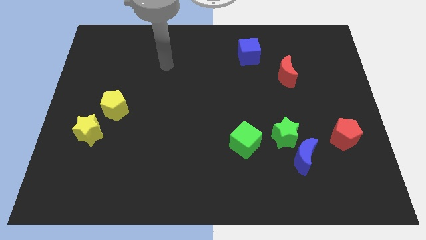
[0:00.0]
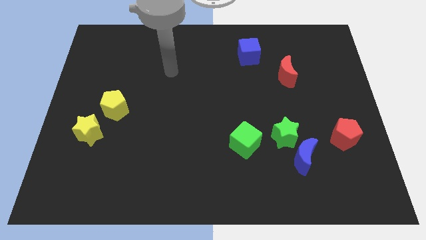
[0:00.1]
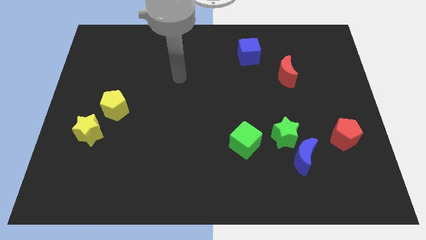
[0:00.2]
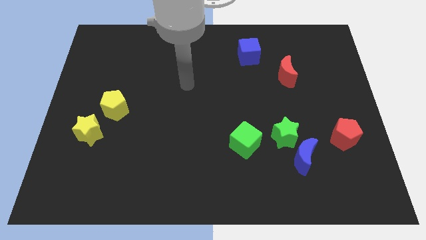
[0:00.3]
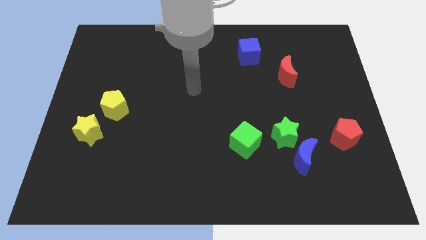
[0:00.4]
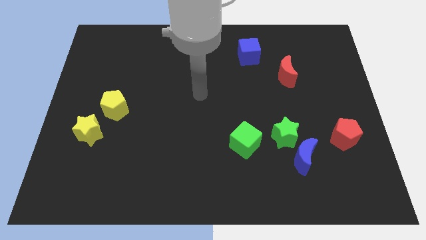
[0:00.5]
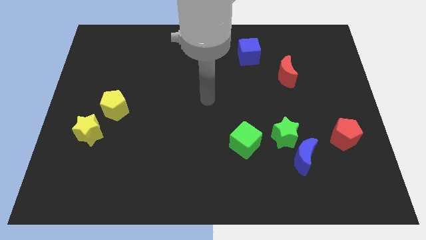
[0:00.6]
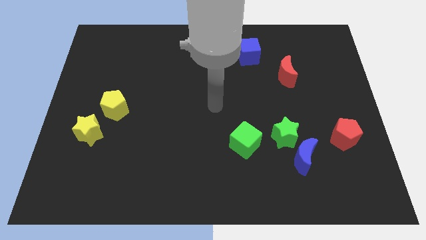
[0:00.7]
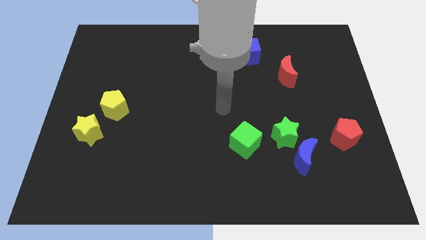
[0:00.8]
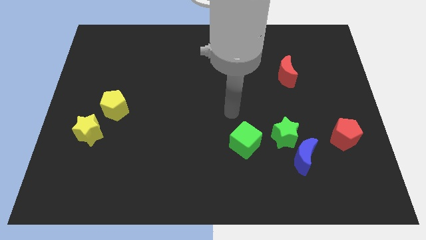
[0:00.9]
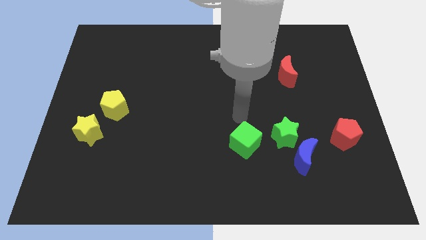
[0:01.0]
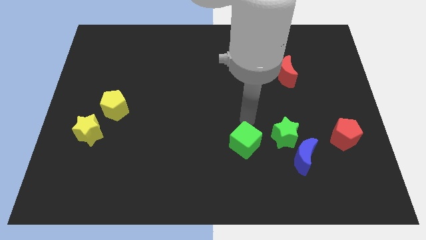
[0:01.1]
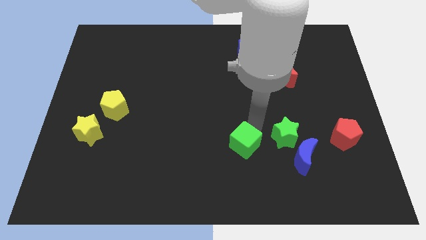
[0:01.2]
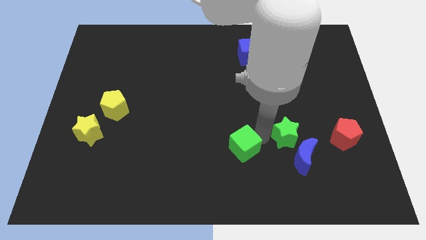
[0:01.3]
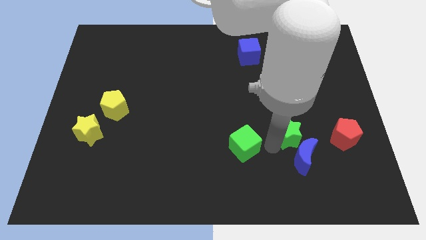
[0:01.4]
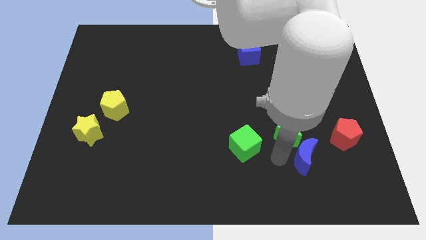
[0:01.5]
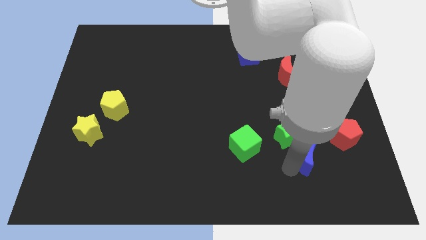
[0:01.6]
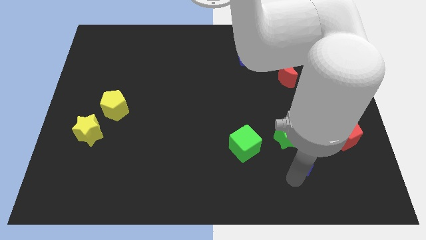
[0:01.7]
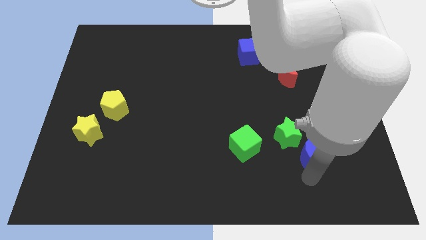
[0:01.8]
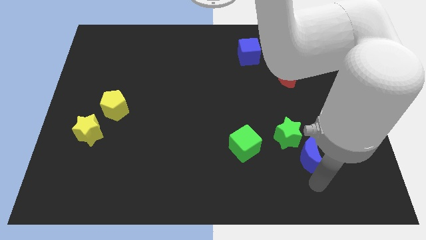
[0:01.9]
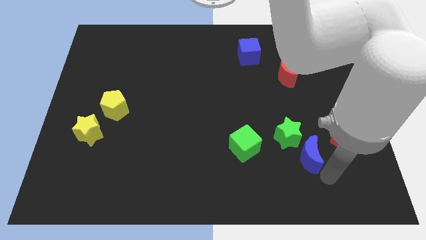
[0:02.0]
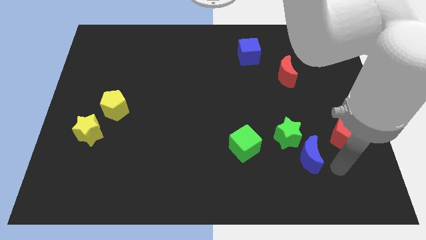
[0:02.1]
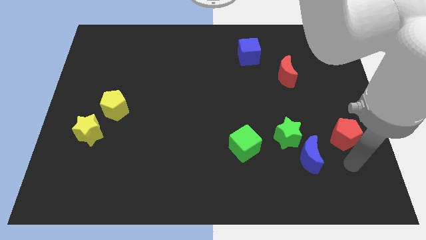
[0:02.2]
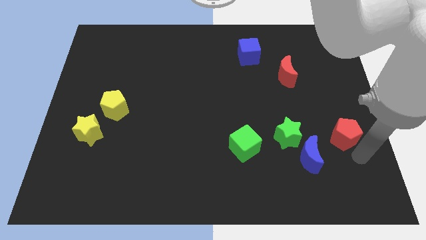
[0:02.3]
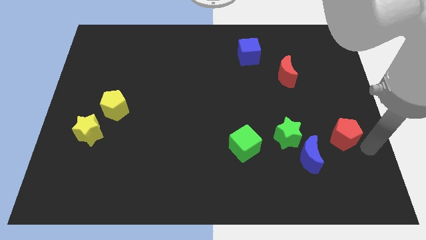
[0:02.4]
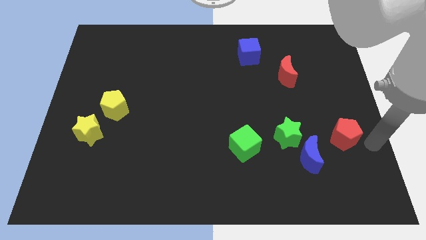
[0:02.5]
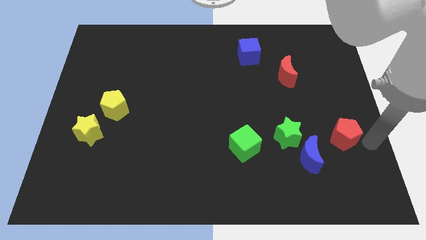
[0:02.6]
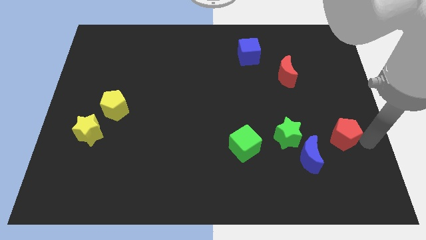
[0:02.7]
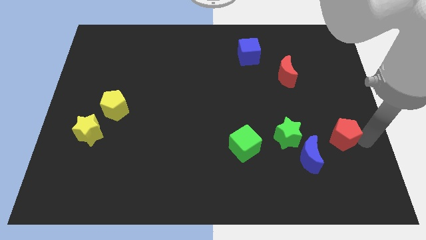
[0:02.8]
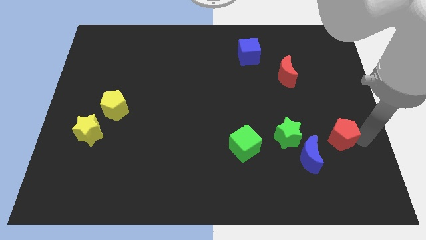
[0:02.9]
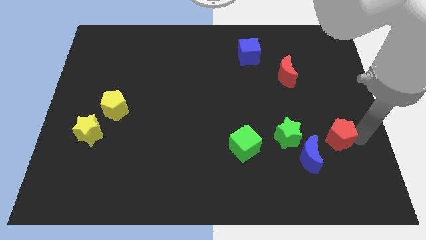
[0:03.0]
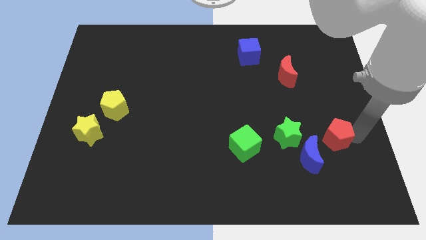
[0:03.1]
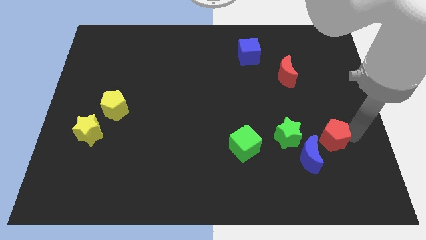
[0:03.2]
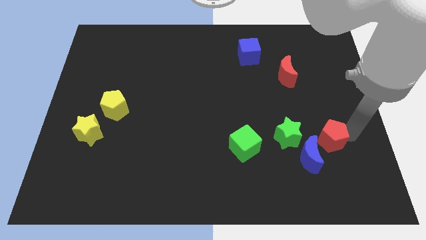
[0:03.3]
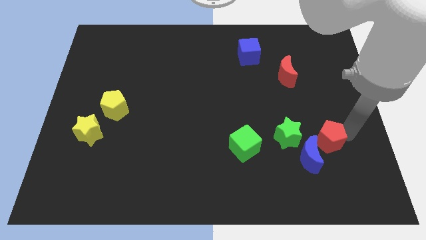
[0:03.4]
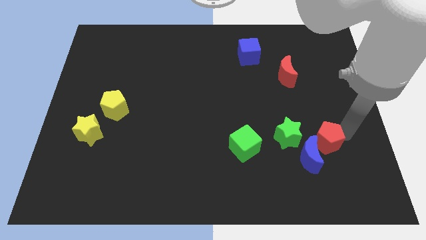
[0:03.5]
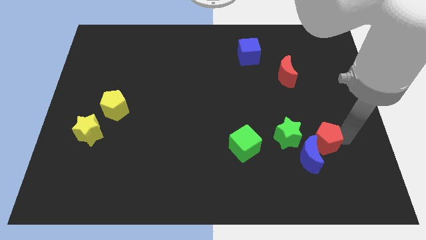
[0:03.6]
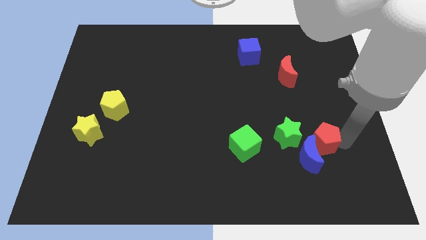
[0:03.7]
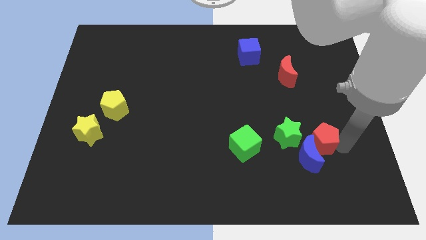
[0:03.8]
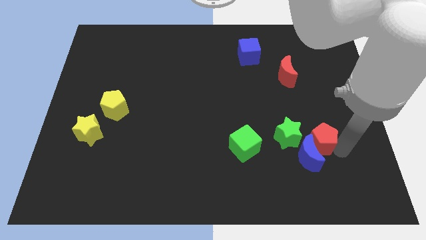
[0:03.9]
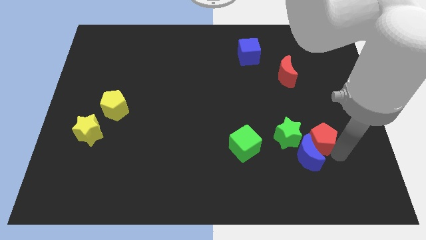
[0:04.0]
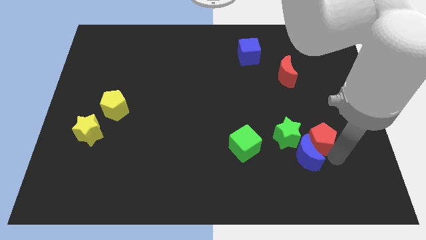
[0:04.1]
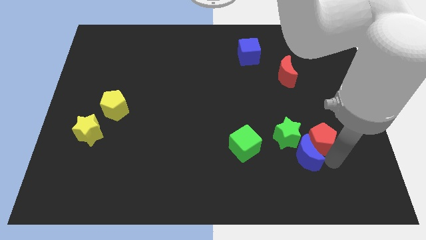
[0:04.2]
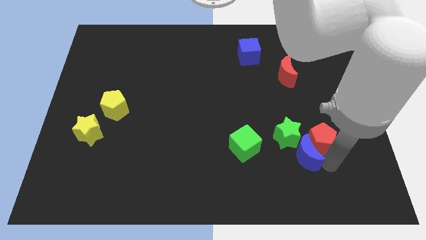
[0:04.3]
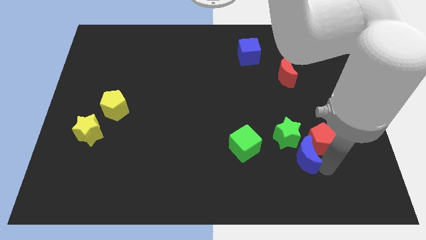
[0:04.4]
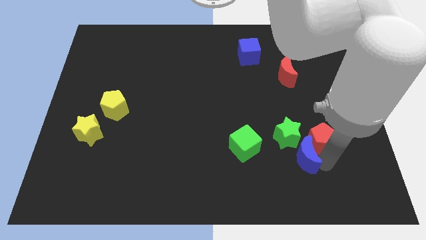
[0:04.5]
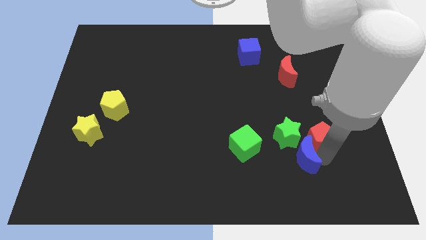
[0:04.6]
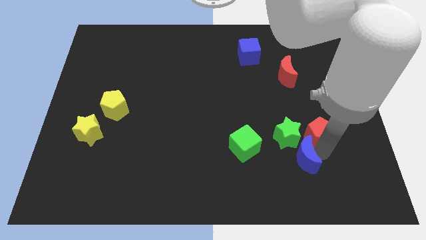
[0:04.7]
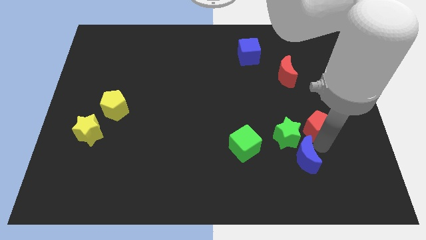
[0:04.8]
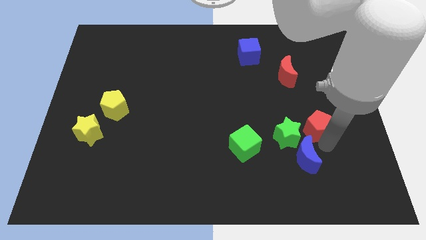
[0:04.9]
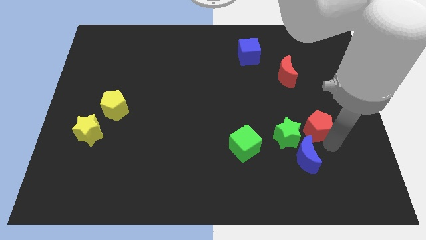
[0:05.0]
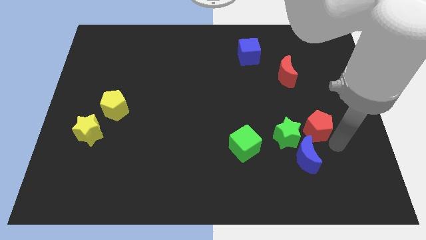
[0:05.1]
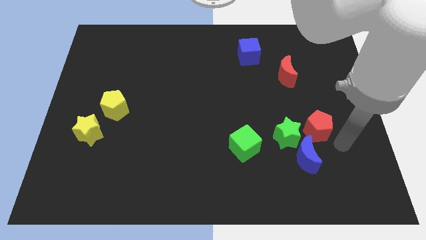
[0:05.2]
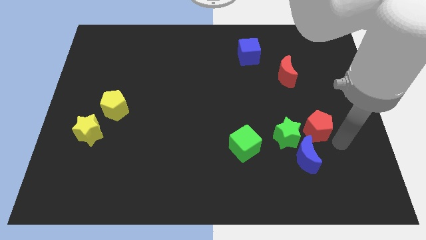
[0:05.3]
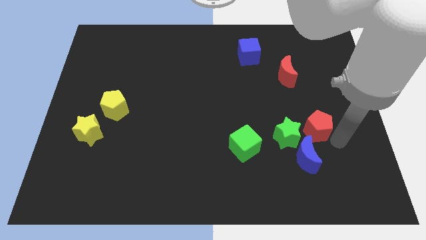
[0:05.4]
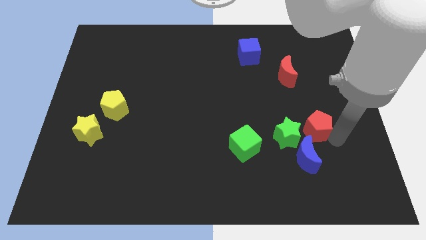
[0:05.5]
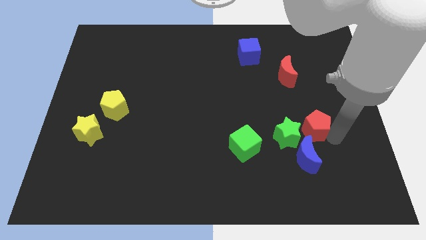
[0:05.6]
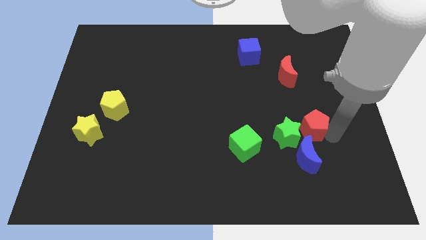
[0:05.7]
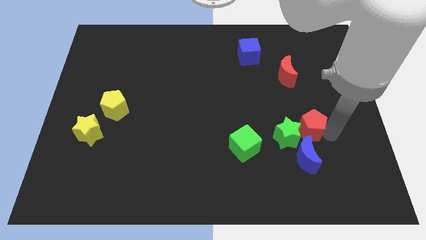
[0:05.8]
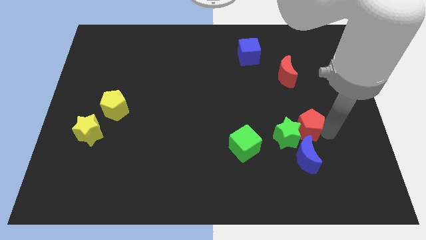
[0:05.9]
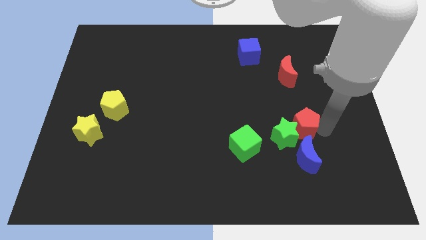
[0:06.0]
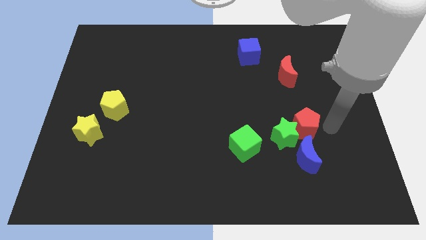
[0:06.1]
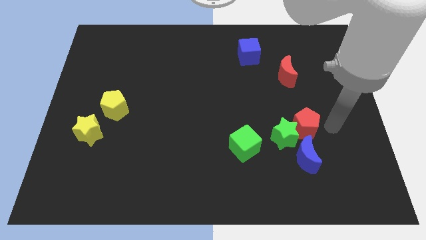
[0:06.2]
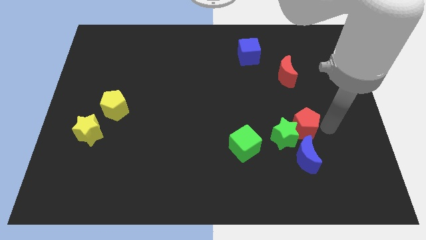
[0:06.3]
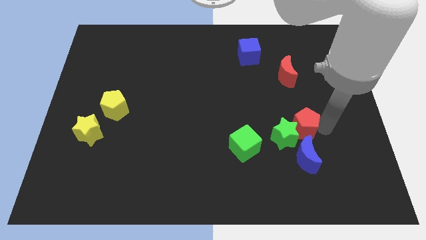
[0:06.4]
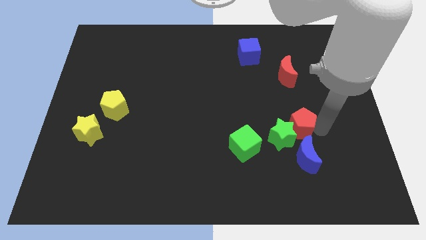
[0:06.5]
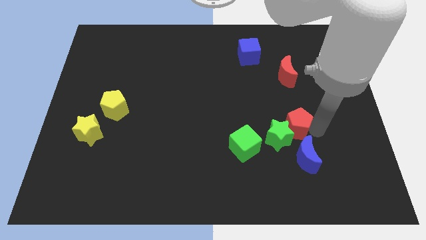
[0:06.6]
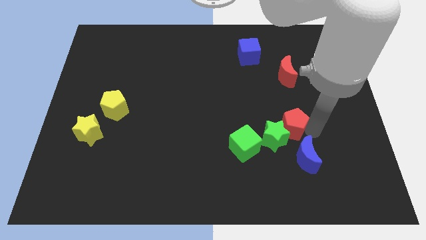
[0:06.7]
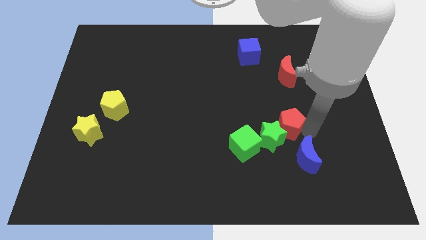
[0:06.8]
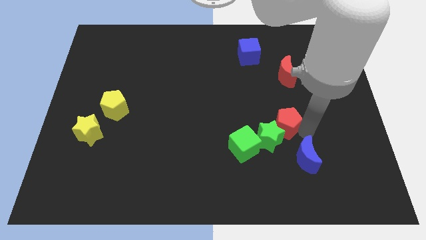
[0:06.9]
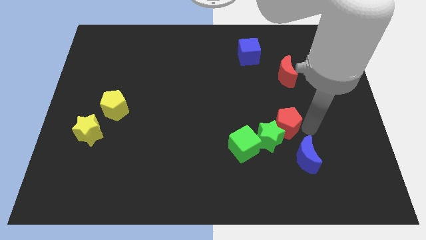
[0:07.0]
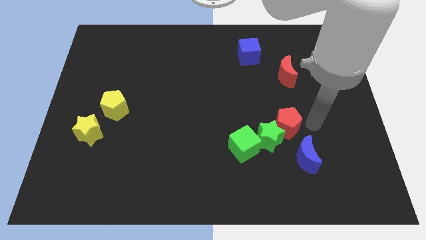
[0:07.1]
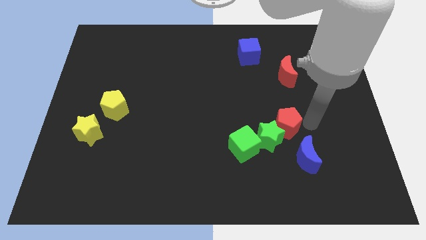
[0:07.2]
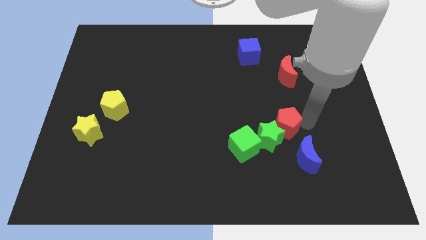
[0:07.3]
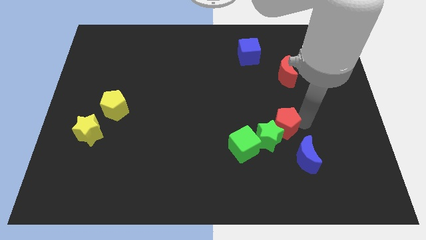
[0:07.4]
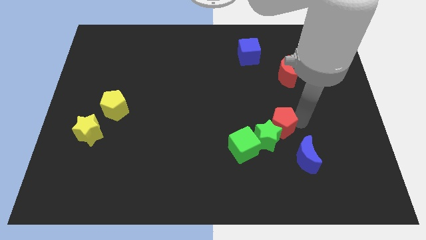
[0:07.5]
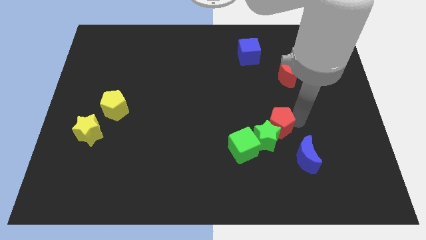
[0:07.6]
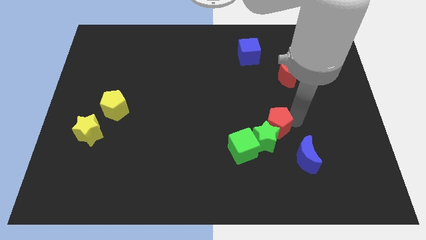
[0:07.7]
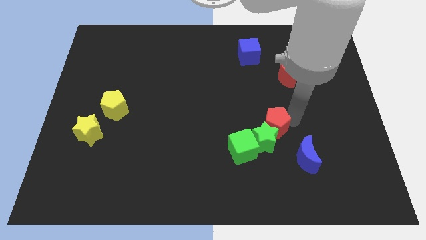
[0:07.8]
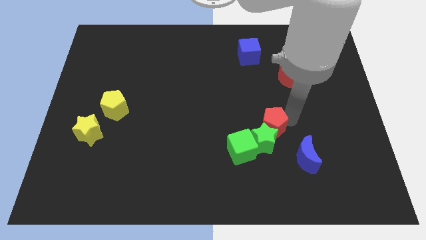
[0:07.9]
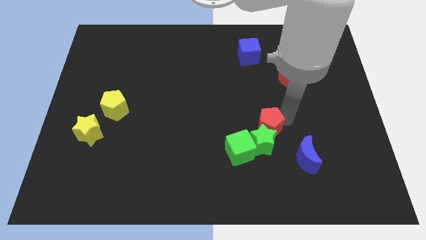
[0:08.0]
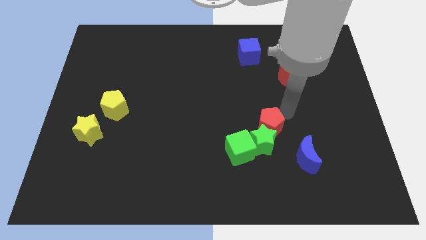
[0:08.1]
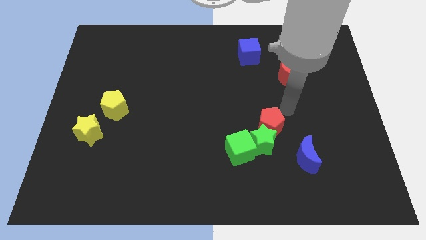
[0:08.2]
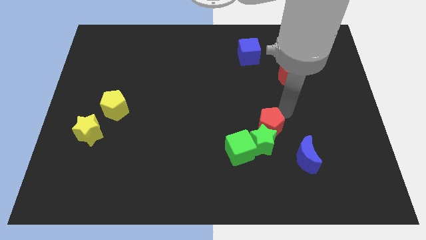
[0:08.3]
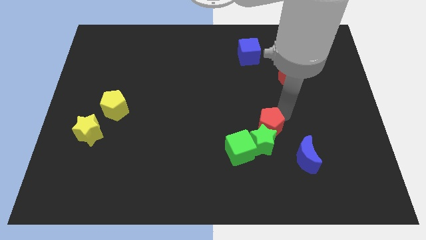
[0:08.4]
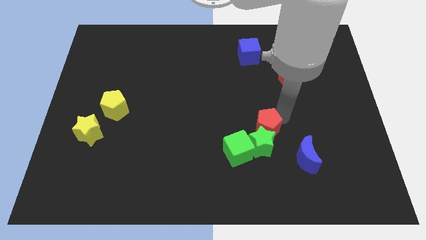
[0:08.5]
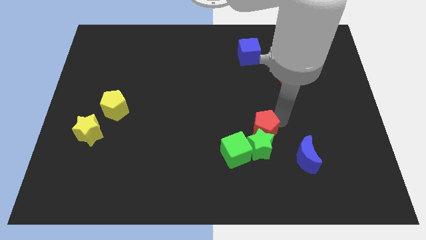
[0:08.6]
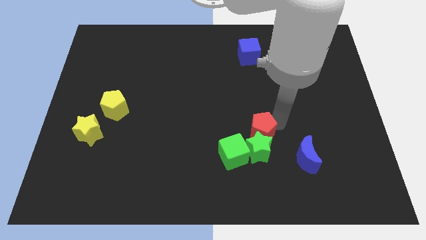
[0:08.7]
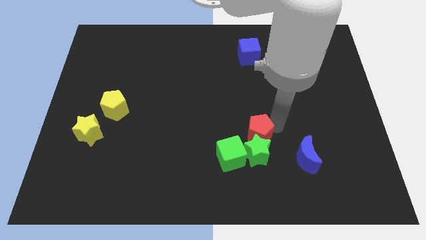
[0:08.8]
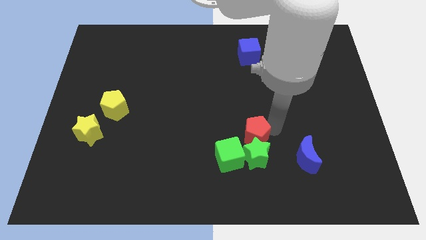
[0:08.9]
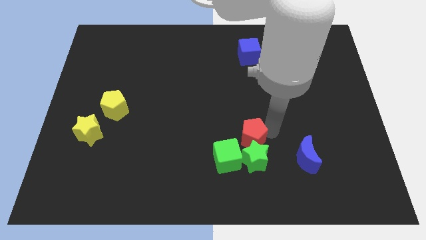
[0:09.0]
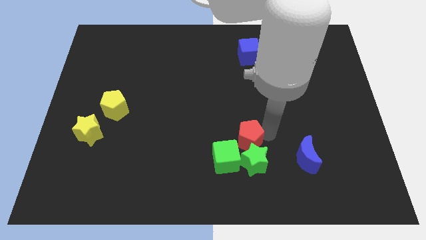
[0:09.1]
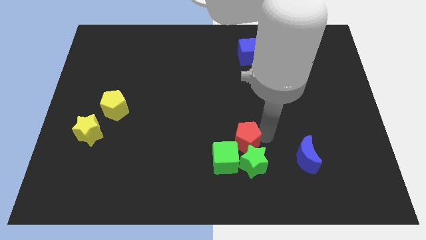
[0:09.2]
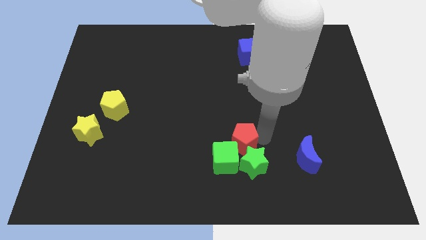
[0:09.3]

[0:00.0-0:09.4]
put the red pentagon close to the green cube
